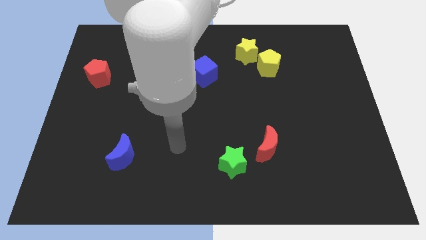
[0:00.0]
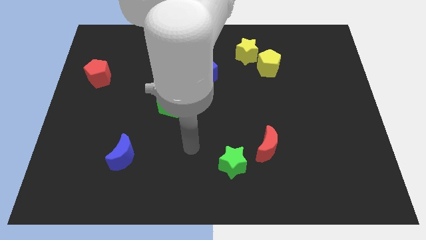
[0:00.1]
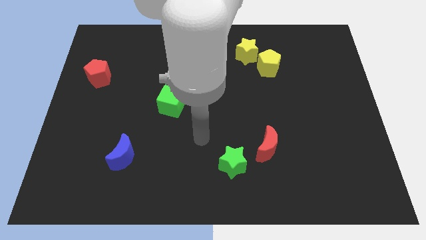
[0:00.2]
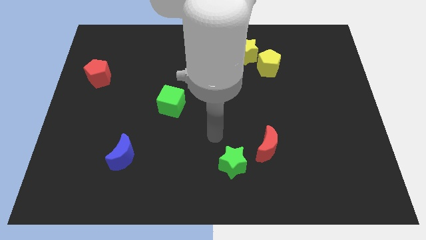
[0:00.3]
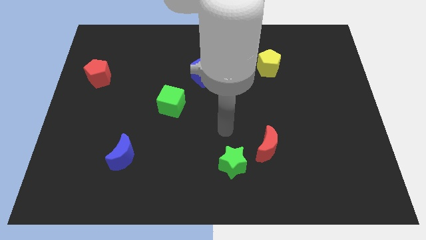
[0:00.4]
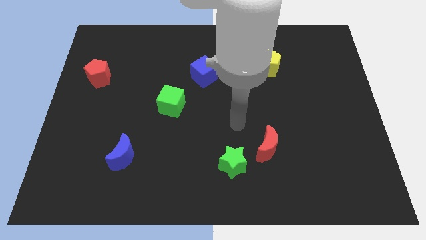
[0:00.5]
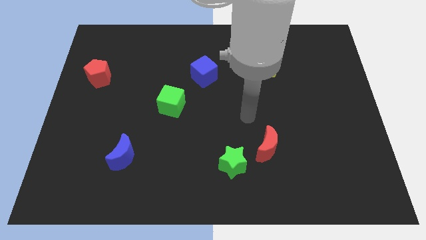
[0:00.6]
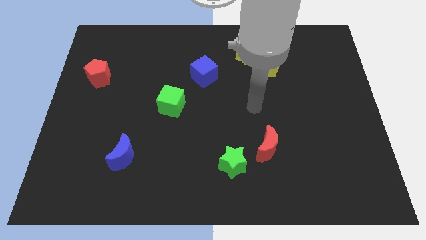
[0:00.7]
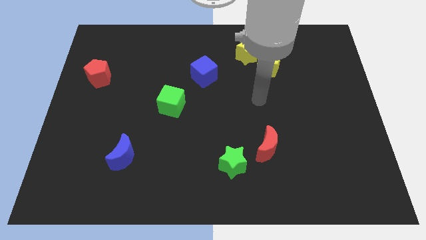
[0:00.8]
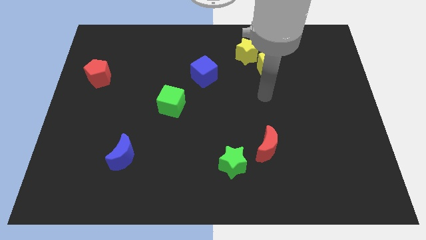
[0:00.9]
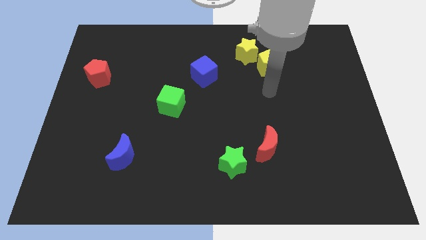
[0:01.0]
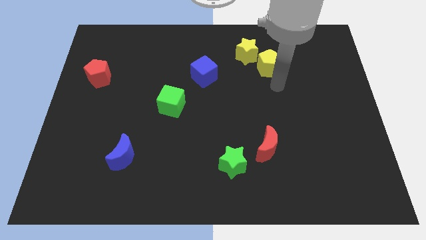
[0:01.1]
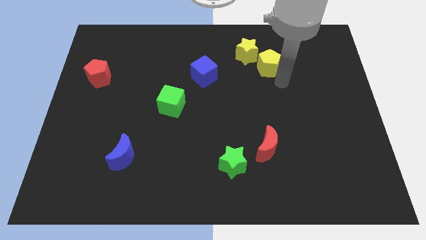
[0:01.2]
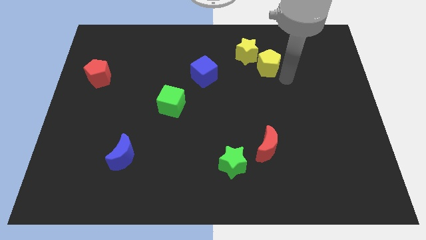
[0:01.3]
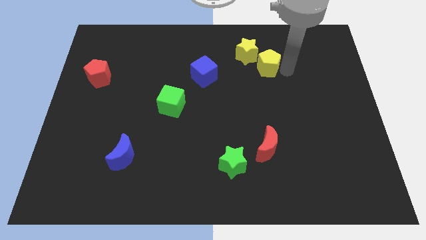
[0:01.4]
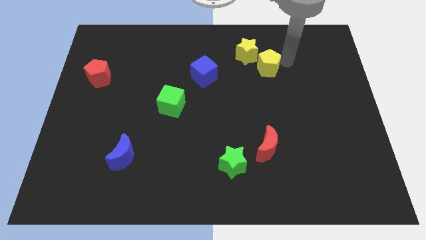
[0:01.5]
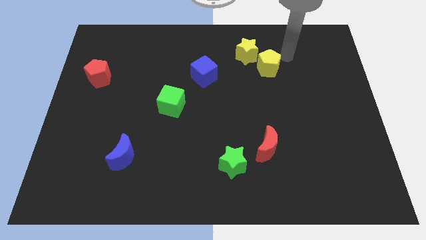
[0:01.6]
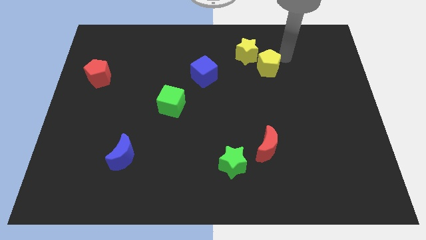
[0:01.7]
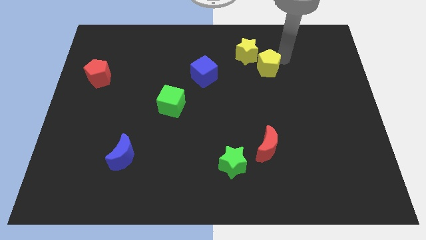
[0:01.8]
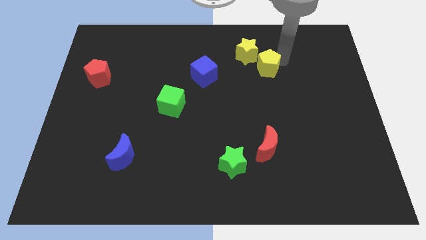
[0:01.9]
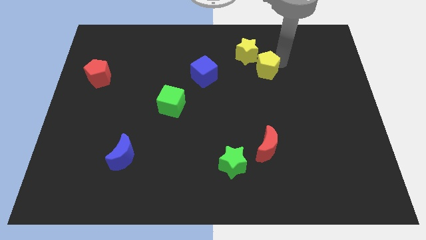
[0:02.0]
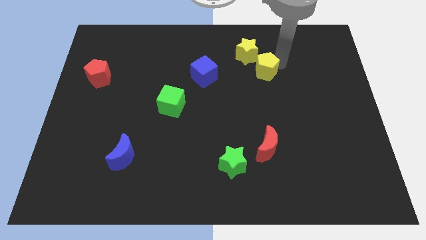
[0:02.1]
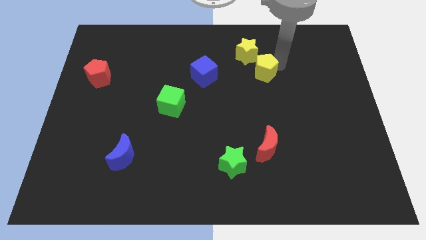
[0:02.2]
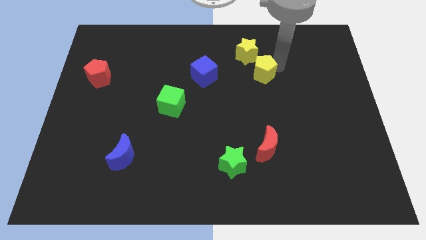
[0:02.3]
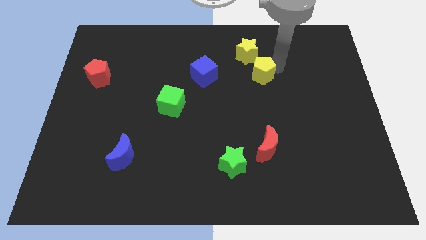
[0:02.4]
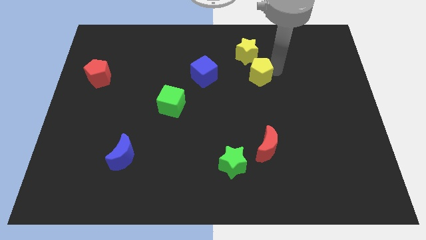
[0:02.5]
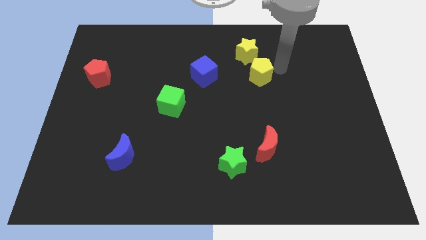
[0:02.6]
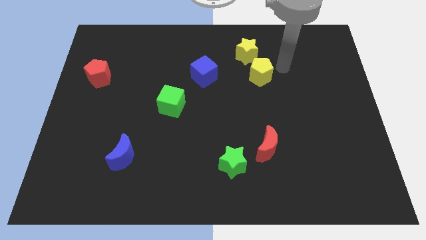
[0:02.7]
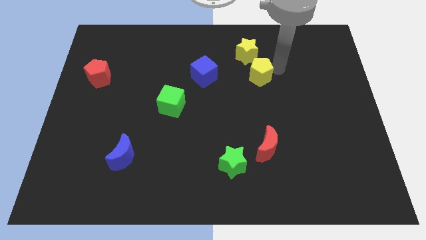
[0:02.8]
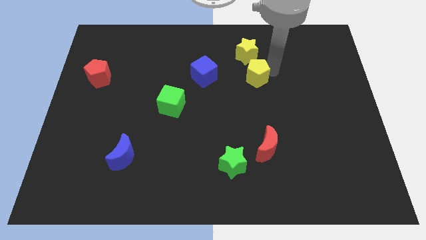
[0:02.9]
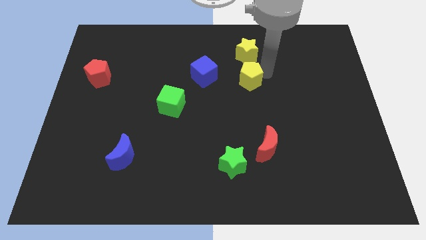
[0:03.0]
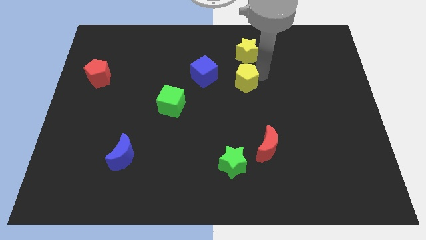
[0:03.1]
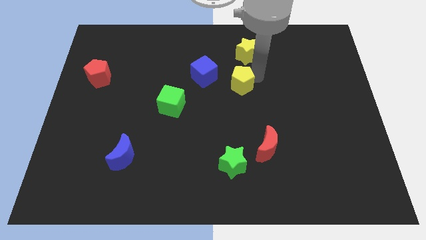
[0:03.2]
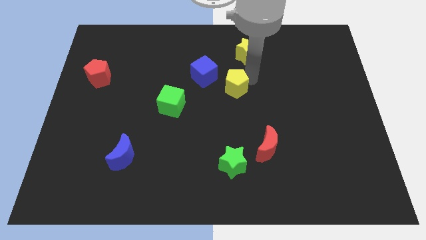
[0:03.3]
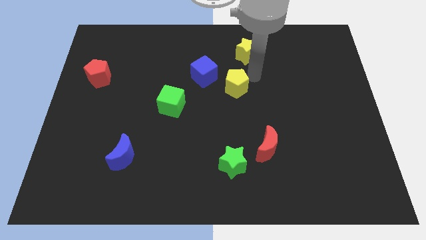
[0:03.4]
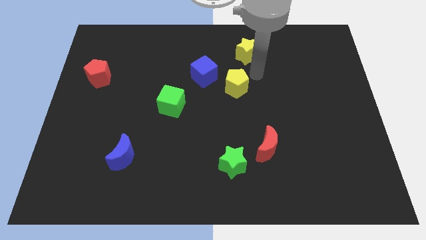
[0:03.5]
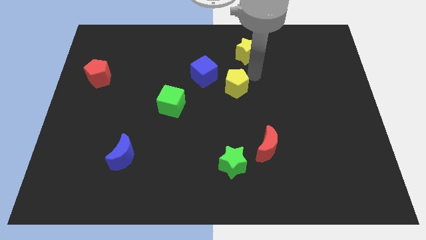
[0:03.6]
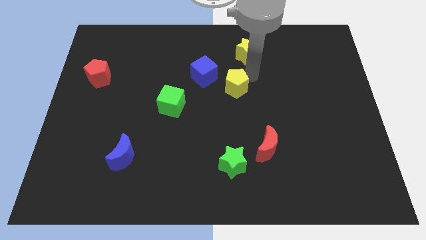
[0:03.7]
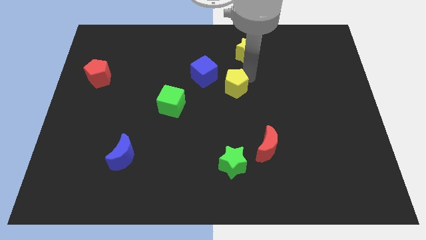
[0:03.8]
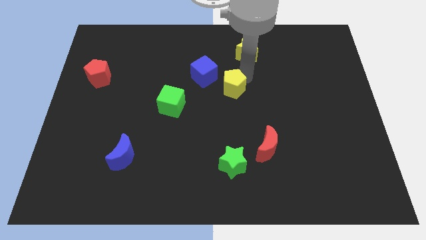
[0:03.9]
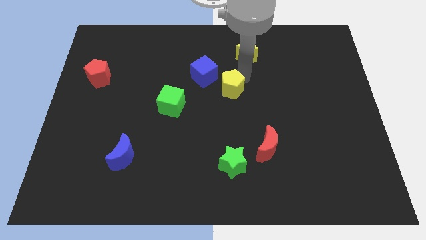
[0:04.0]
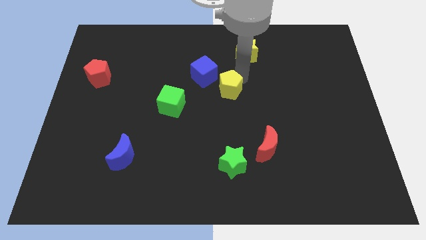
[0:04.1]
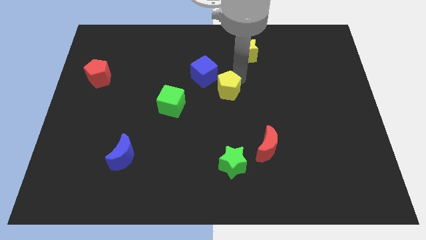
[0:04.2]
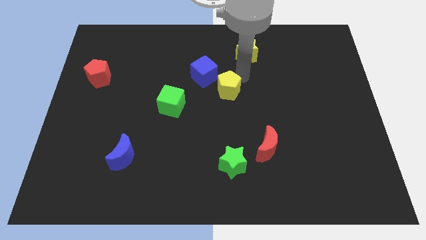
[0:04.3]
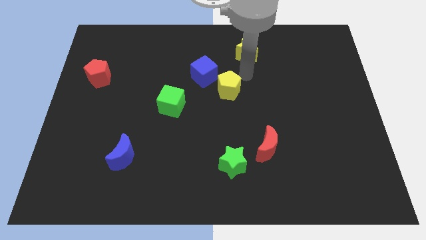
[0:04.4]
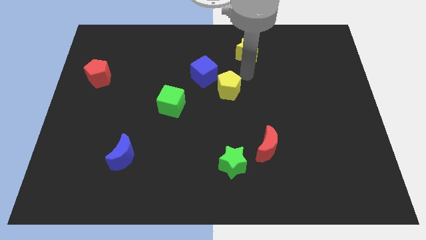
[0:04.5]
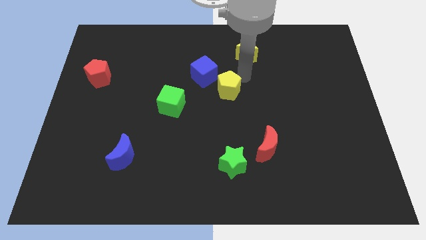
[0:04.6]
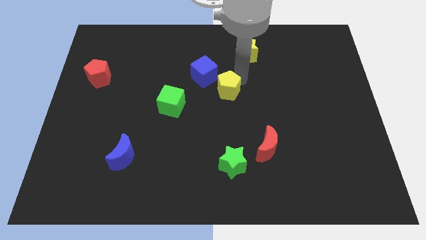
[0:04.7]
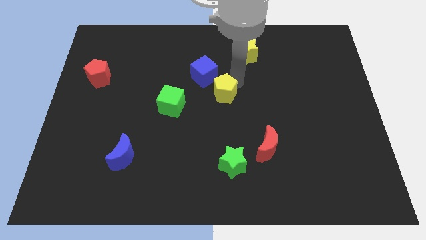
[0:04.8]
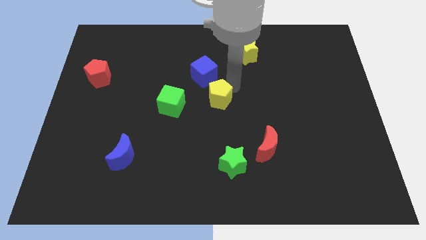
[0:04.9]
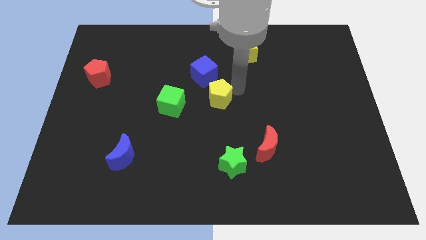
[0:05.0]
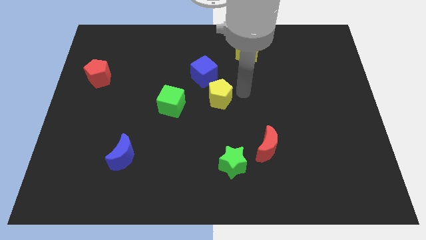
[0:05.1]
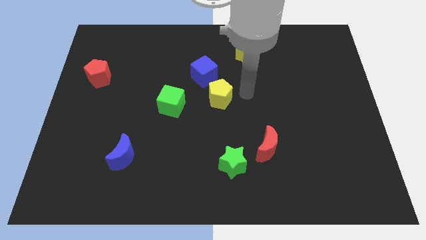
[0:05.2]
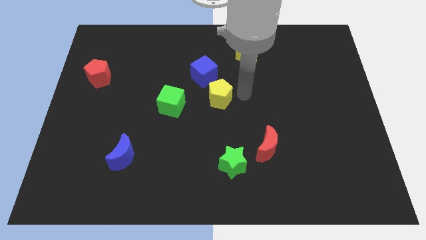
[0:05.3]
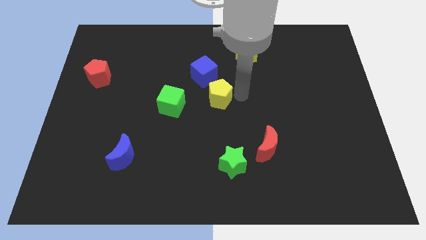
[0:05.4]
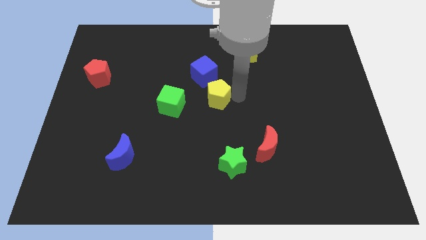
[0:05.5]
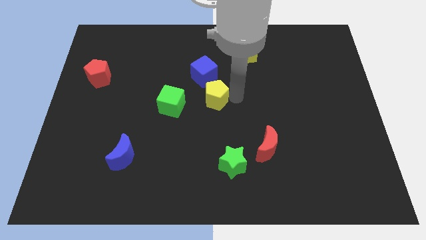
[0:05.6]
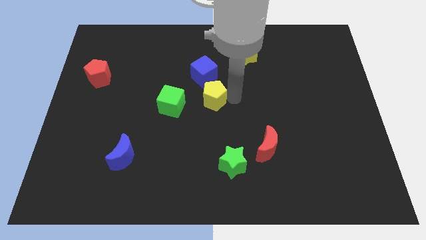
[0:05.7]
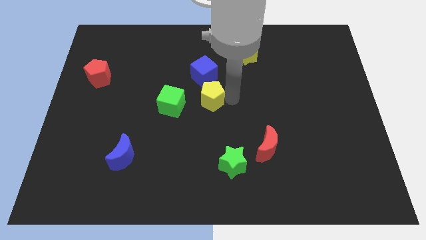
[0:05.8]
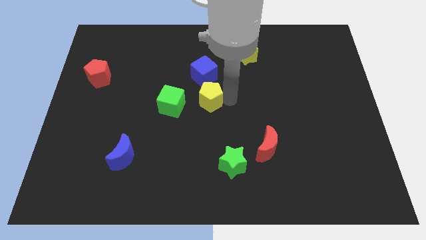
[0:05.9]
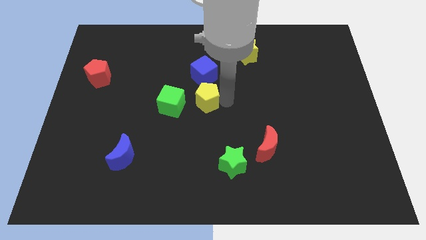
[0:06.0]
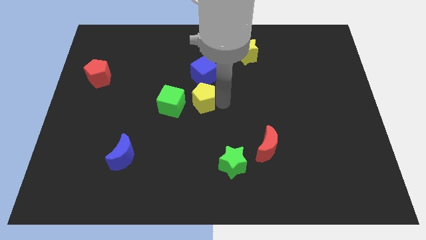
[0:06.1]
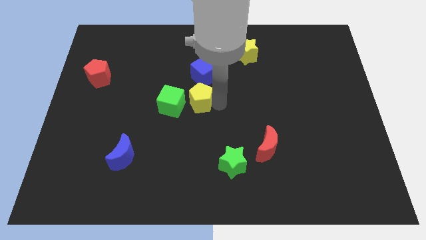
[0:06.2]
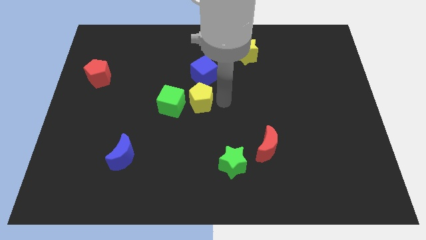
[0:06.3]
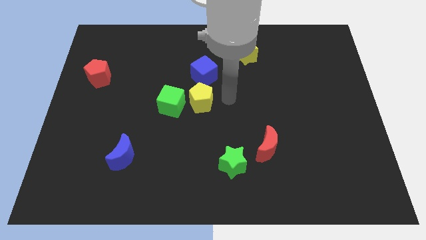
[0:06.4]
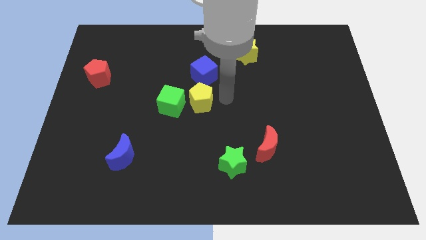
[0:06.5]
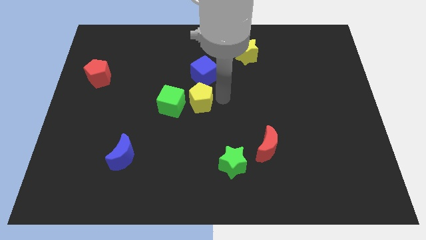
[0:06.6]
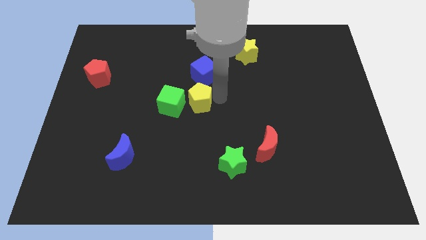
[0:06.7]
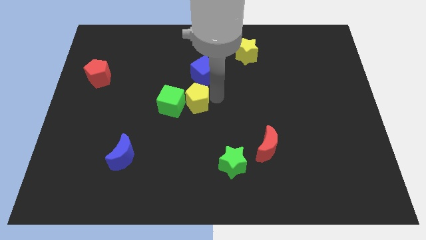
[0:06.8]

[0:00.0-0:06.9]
move the yellow pentagon next to the green cube
